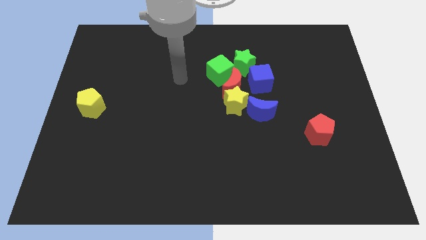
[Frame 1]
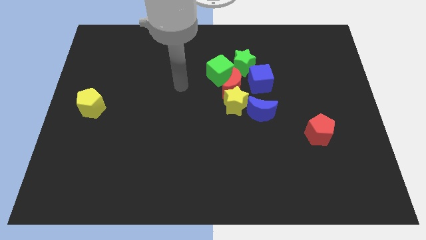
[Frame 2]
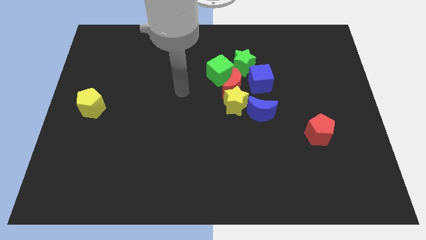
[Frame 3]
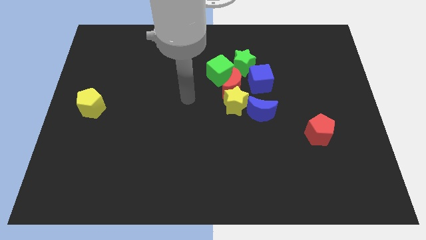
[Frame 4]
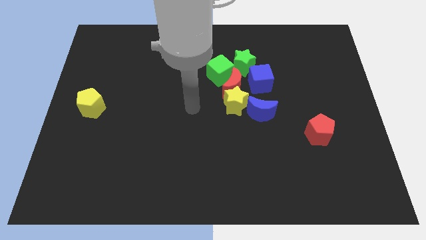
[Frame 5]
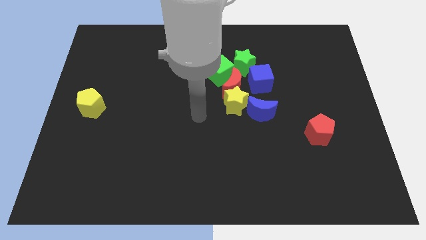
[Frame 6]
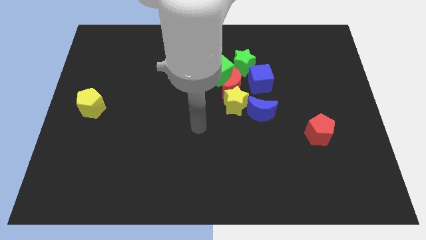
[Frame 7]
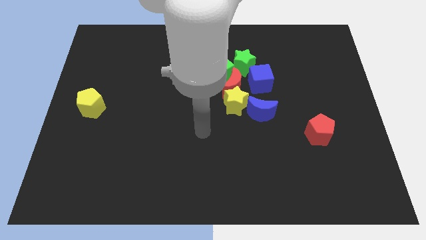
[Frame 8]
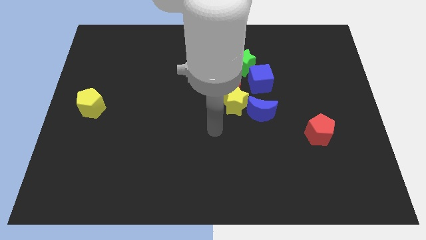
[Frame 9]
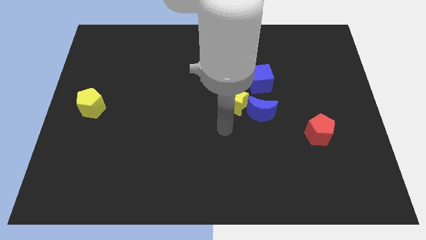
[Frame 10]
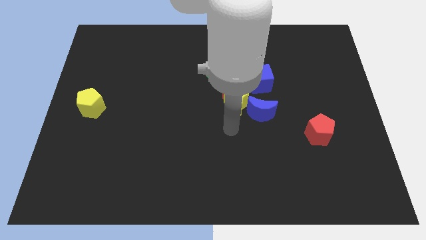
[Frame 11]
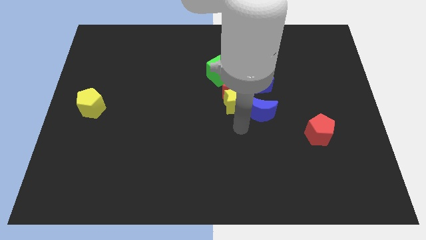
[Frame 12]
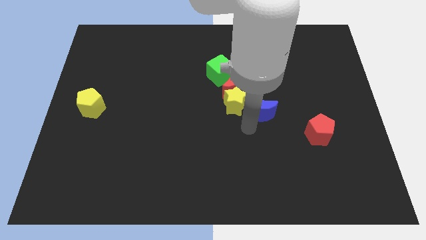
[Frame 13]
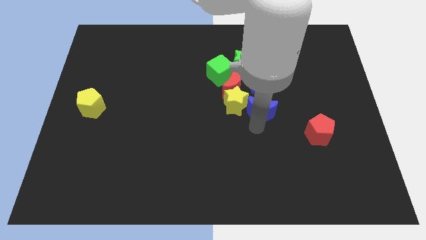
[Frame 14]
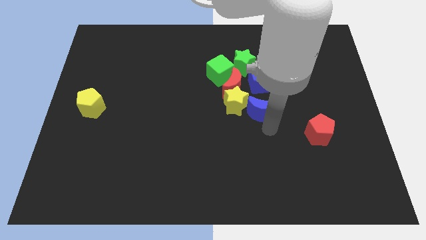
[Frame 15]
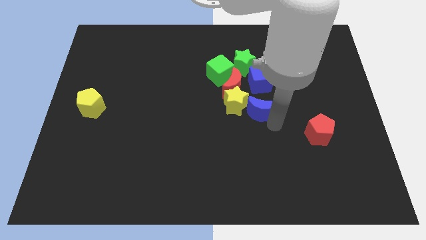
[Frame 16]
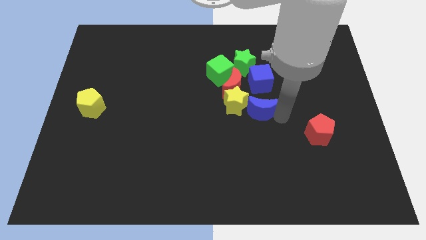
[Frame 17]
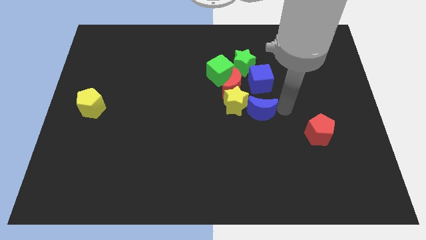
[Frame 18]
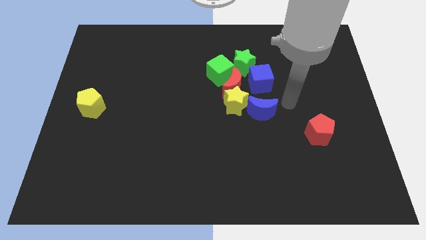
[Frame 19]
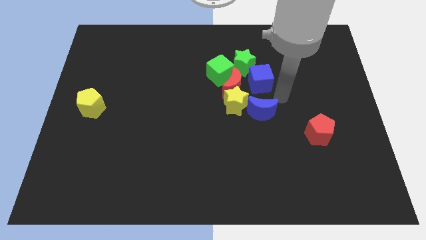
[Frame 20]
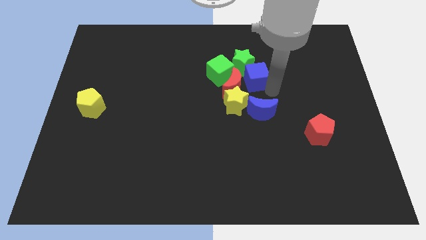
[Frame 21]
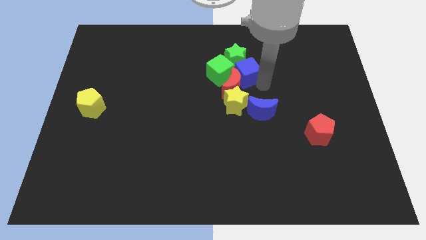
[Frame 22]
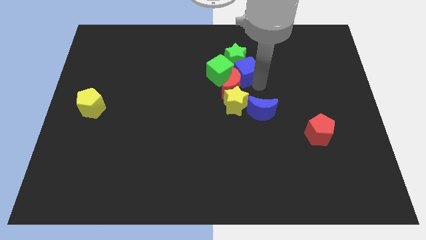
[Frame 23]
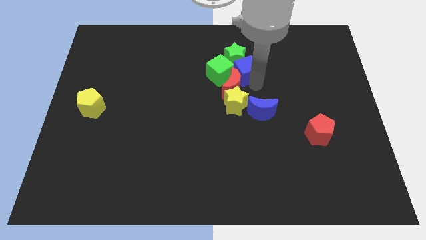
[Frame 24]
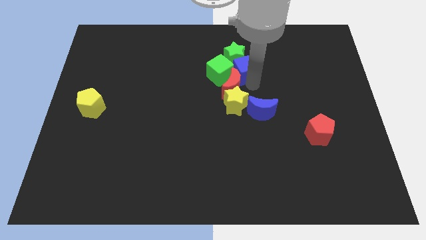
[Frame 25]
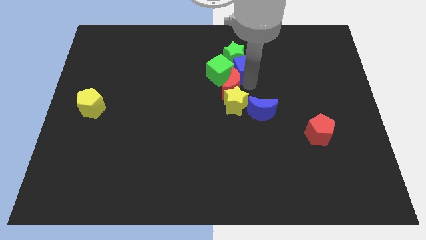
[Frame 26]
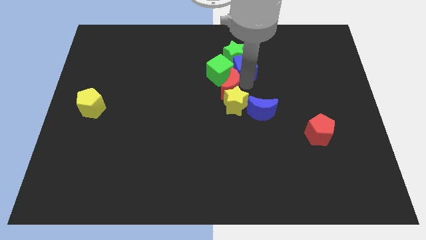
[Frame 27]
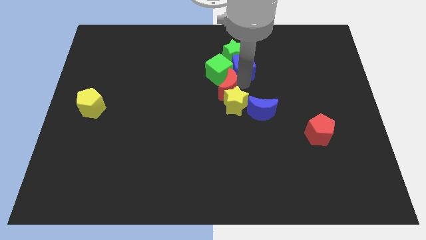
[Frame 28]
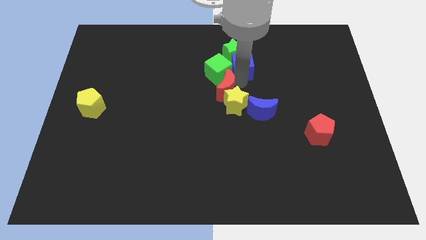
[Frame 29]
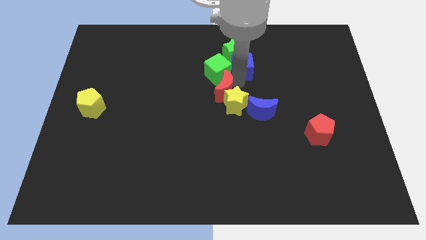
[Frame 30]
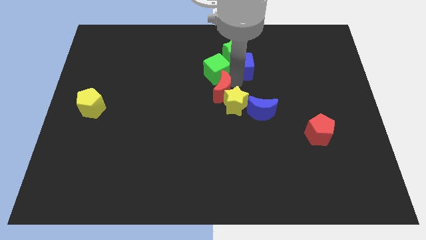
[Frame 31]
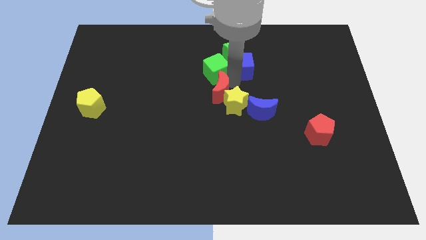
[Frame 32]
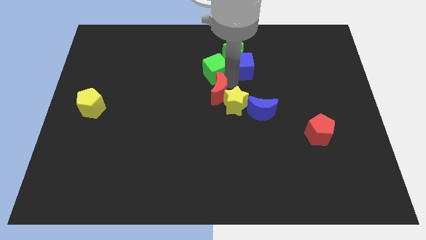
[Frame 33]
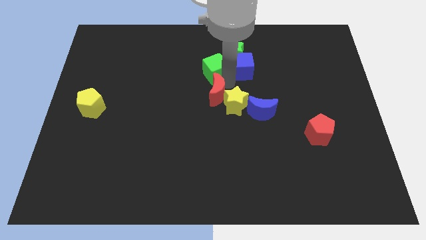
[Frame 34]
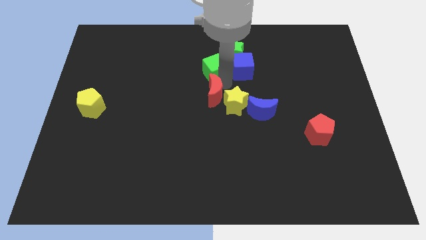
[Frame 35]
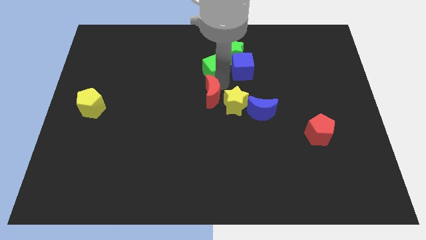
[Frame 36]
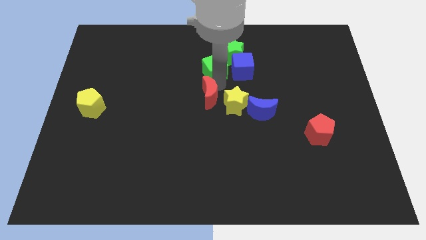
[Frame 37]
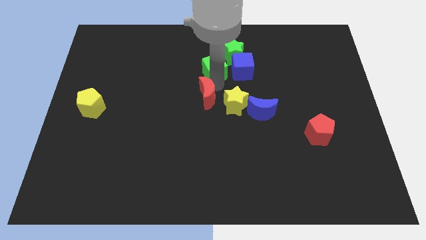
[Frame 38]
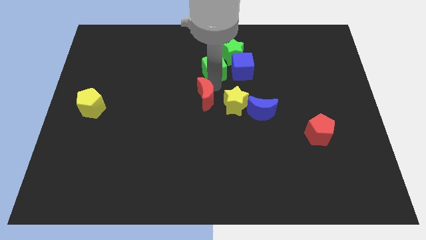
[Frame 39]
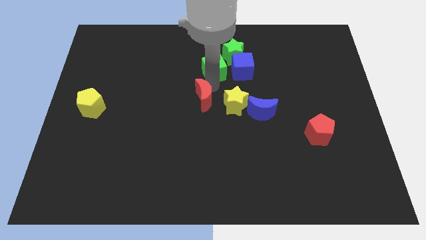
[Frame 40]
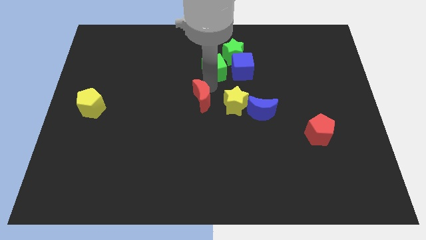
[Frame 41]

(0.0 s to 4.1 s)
pull the red moon apart from the clump

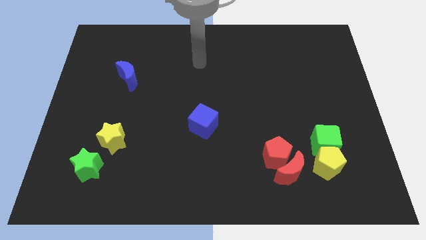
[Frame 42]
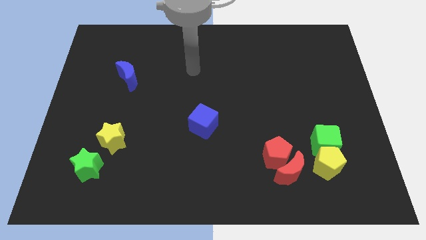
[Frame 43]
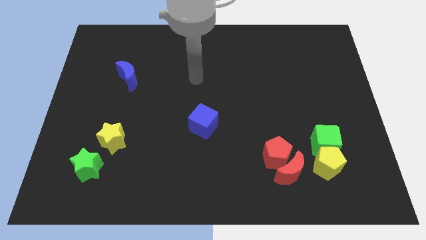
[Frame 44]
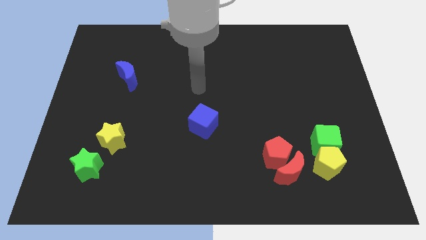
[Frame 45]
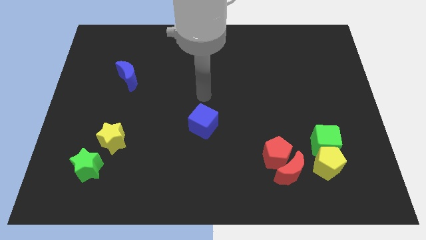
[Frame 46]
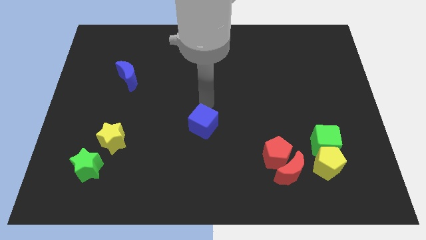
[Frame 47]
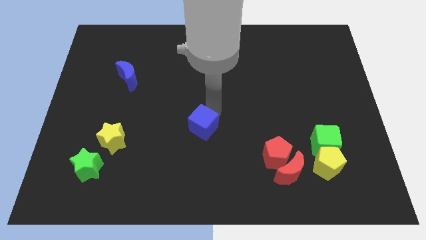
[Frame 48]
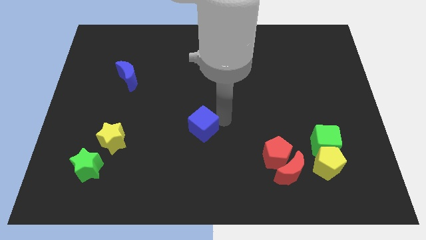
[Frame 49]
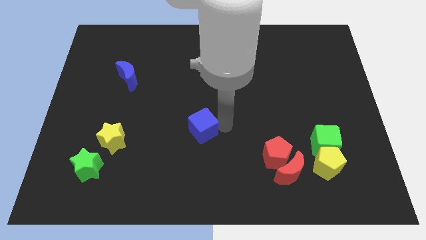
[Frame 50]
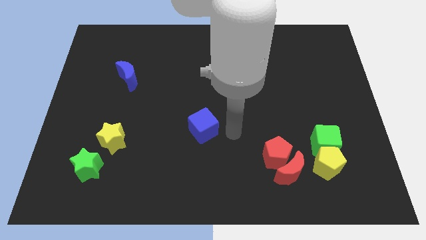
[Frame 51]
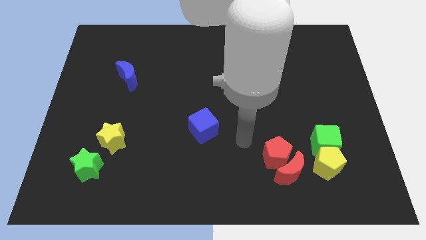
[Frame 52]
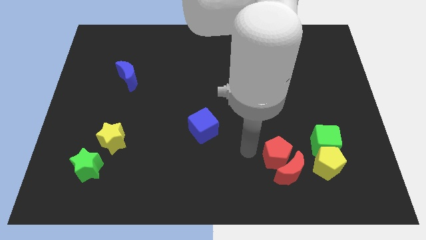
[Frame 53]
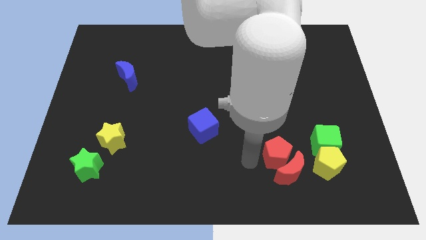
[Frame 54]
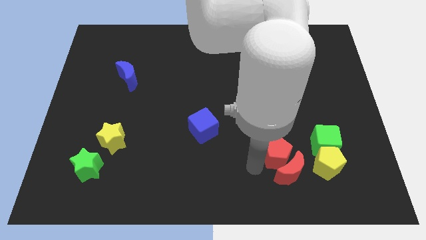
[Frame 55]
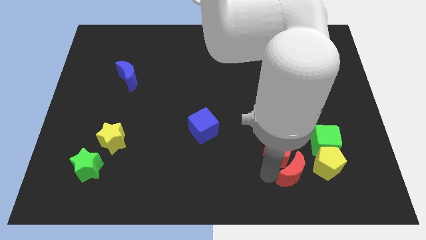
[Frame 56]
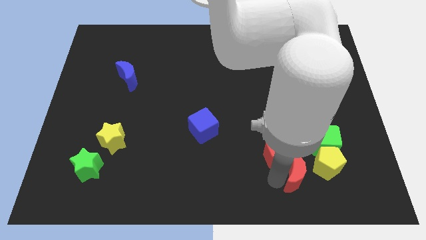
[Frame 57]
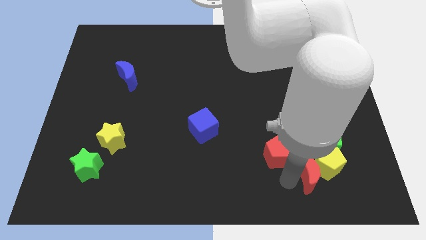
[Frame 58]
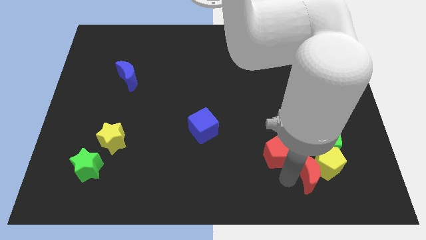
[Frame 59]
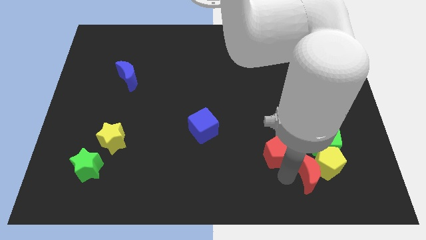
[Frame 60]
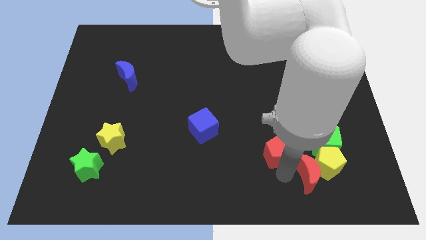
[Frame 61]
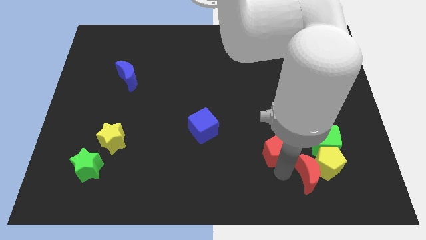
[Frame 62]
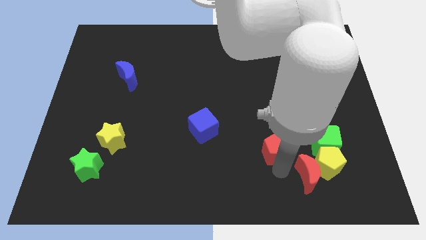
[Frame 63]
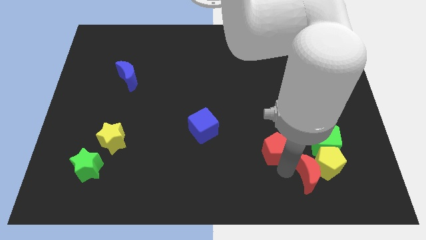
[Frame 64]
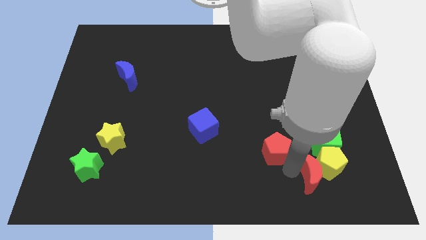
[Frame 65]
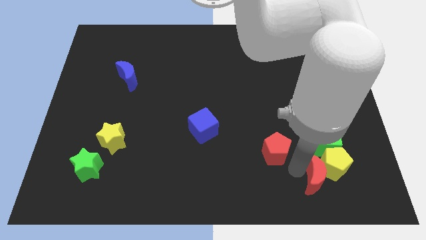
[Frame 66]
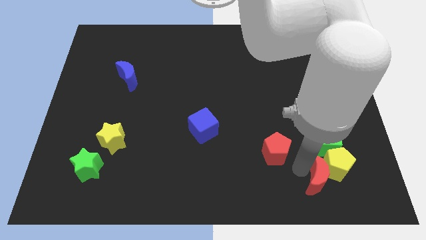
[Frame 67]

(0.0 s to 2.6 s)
pull the red pentagon apart from the red moon

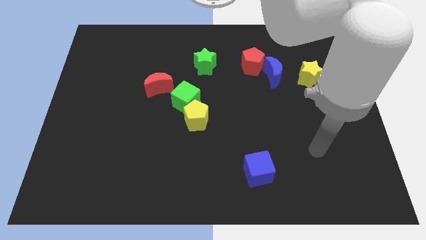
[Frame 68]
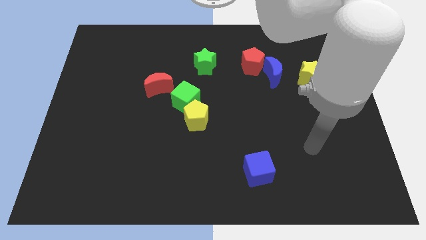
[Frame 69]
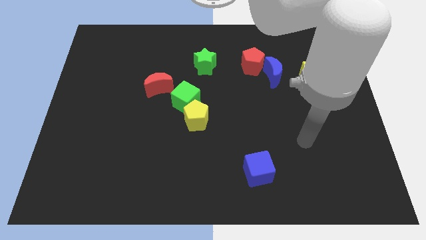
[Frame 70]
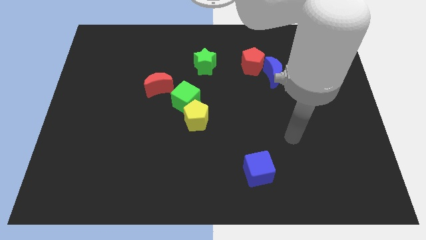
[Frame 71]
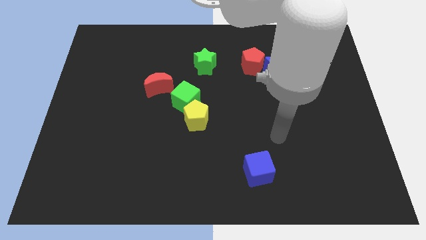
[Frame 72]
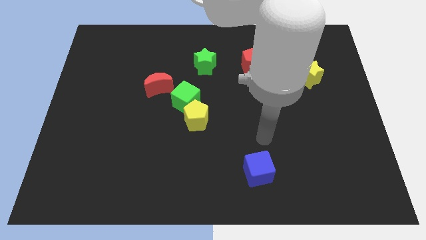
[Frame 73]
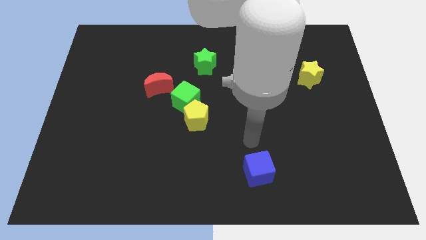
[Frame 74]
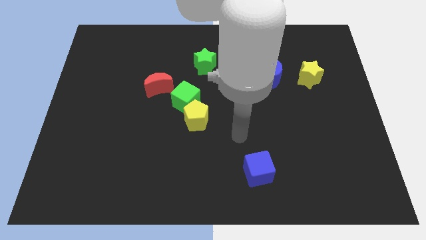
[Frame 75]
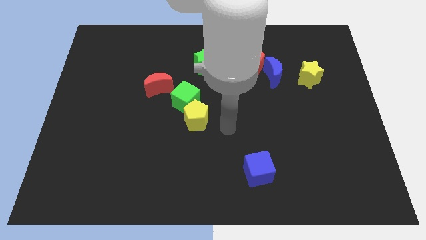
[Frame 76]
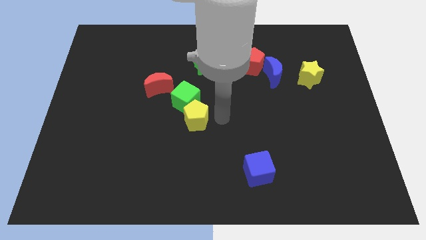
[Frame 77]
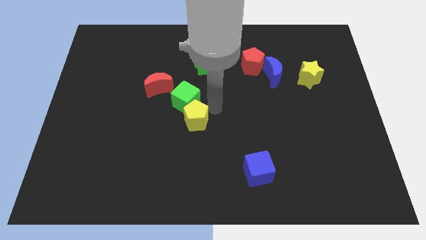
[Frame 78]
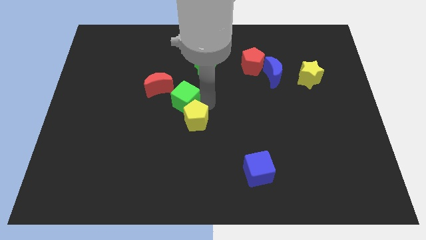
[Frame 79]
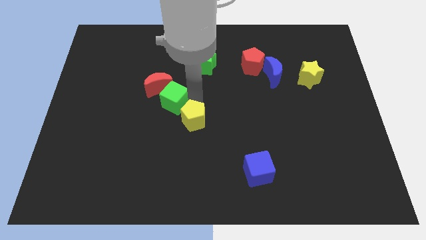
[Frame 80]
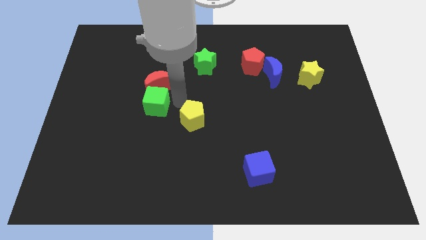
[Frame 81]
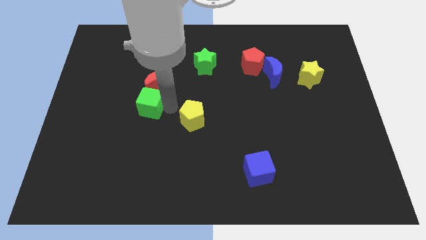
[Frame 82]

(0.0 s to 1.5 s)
separate the yellow pentagon from the green cube

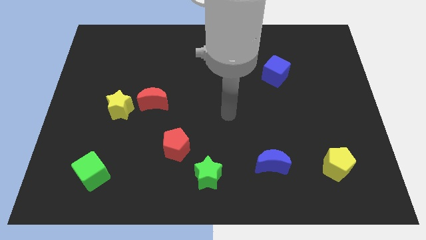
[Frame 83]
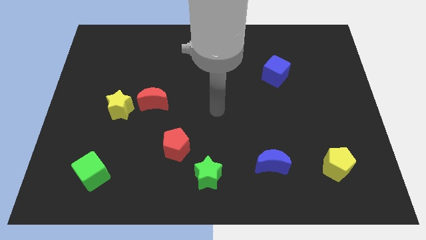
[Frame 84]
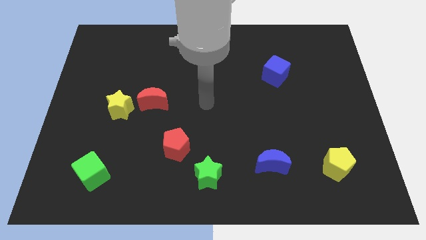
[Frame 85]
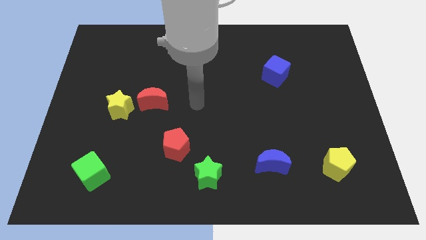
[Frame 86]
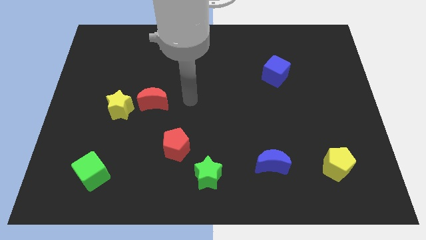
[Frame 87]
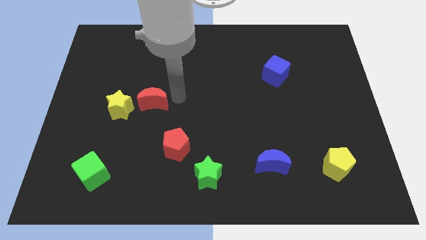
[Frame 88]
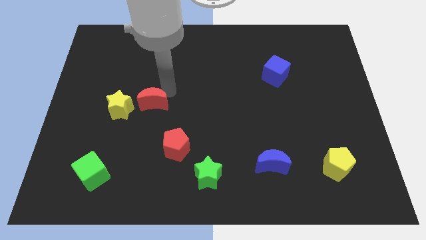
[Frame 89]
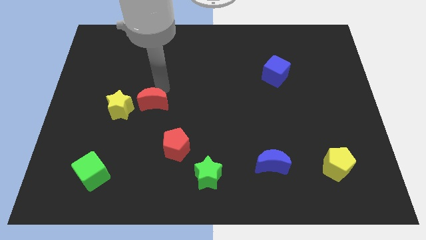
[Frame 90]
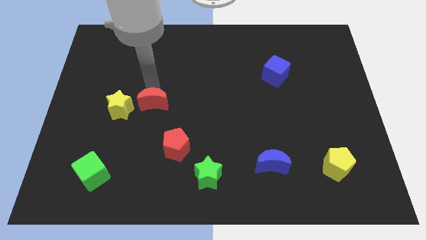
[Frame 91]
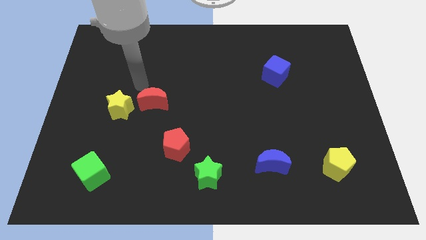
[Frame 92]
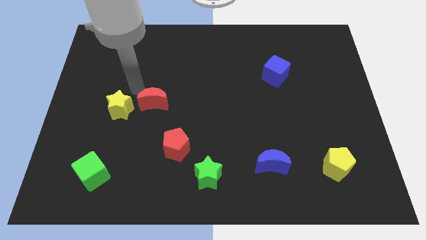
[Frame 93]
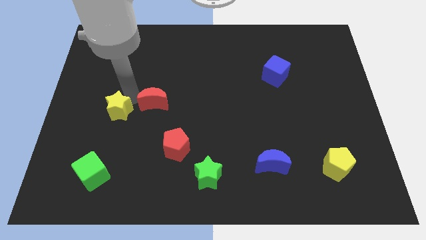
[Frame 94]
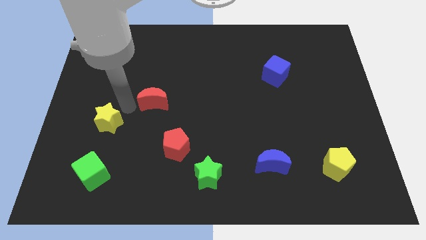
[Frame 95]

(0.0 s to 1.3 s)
separate the red moon from the yellow star

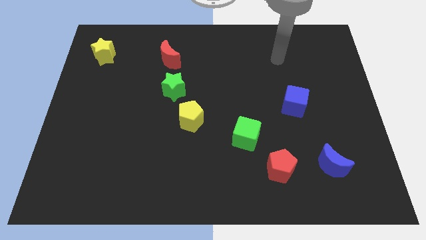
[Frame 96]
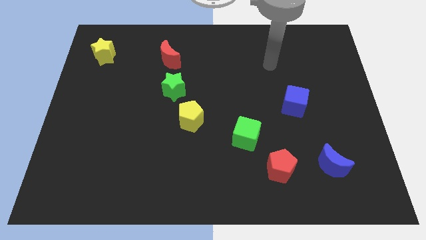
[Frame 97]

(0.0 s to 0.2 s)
move the green star away from the yellow pentagon
